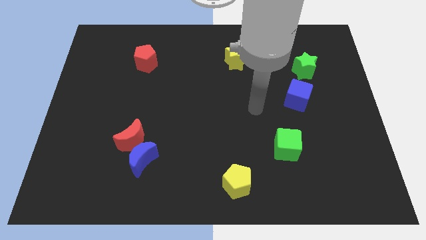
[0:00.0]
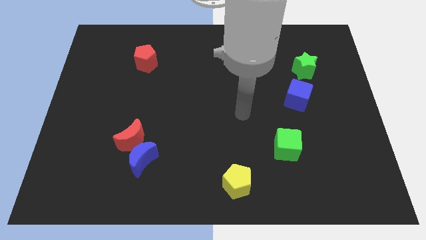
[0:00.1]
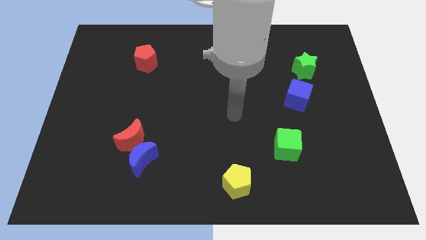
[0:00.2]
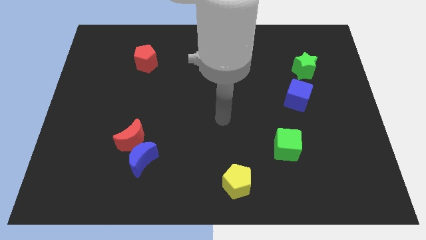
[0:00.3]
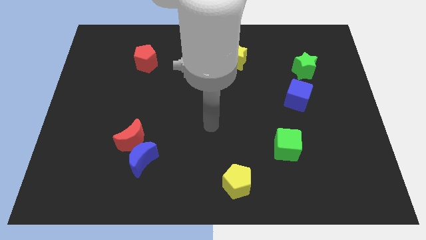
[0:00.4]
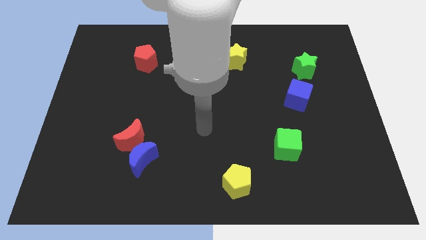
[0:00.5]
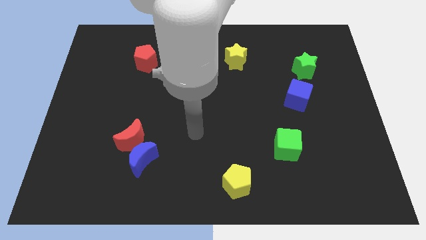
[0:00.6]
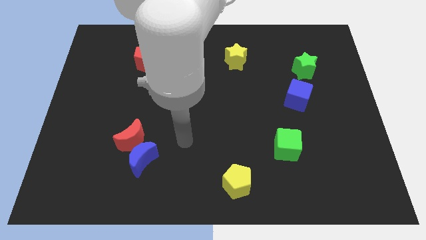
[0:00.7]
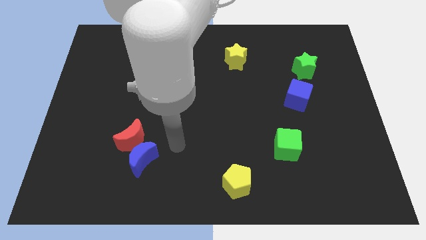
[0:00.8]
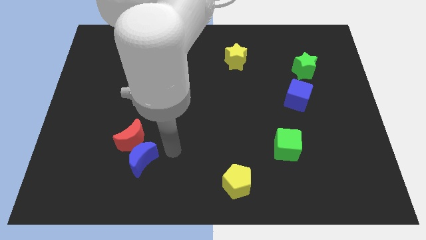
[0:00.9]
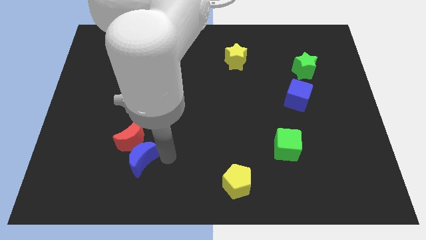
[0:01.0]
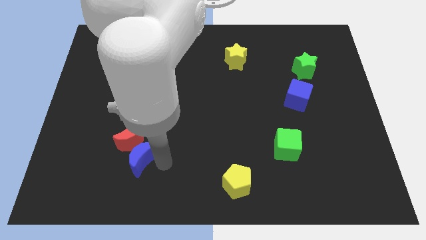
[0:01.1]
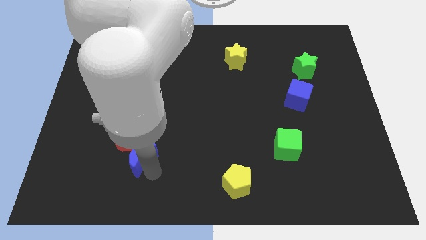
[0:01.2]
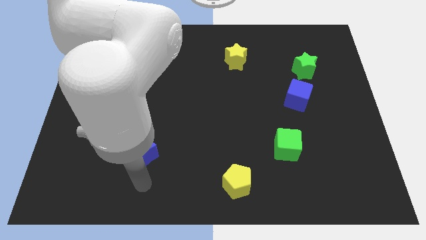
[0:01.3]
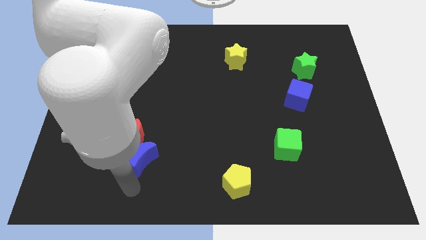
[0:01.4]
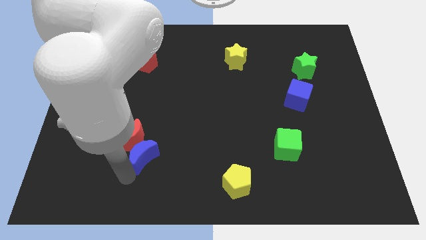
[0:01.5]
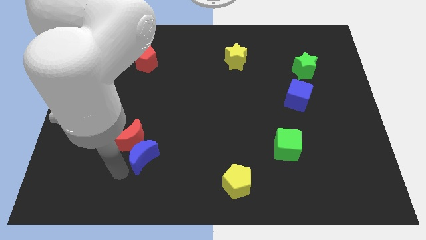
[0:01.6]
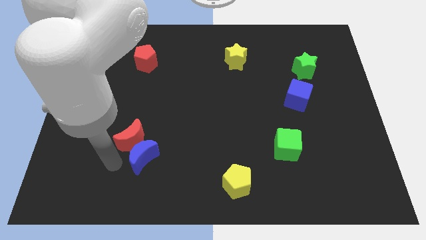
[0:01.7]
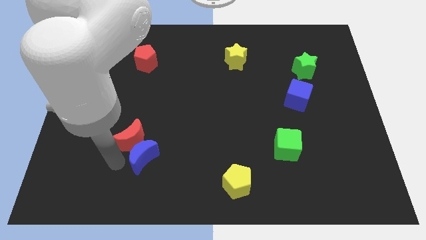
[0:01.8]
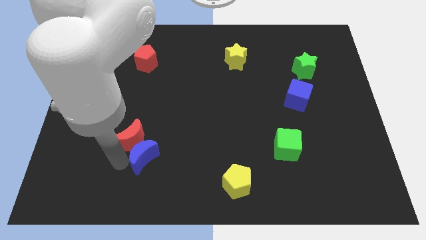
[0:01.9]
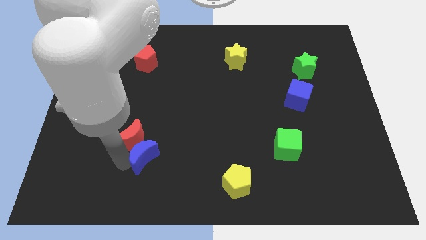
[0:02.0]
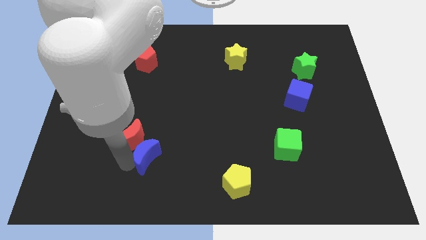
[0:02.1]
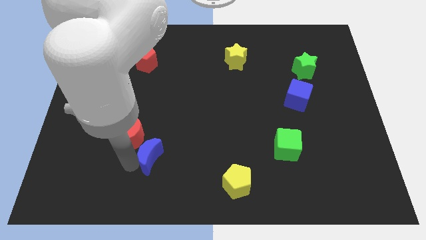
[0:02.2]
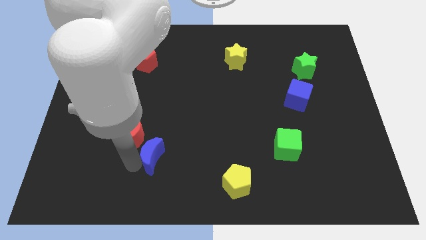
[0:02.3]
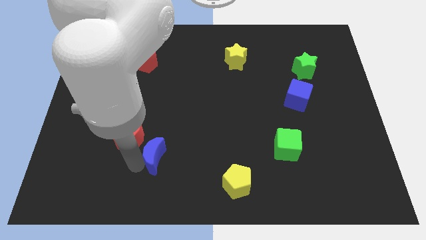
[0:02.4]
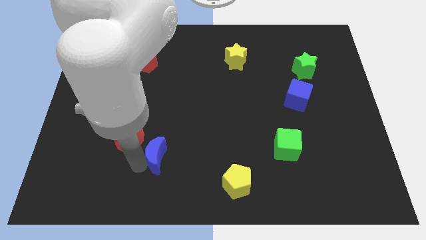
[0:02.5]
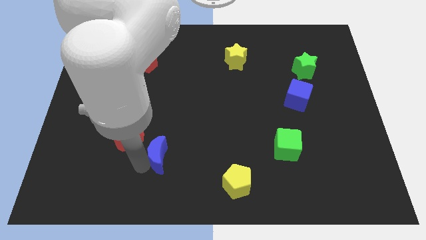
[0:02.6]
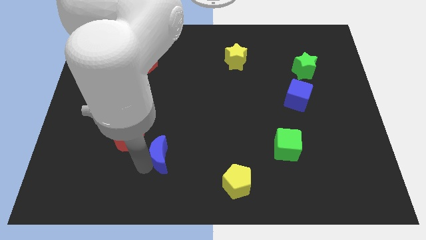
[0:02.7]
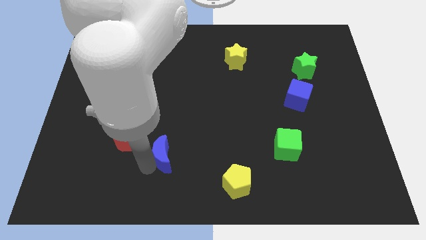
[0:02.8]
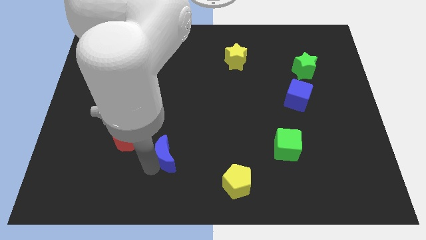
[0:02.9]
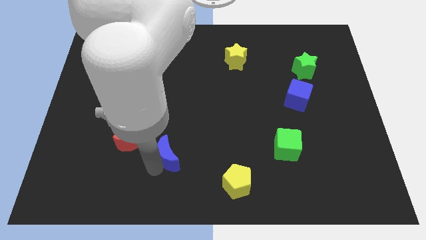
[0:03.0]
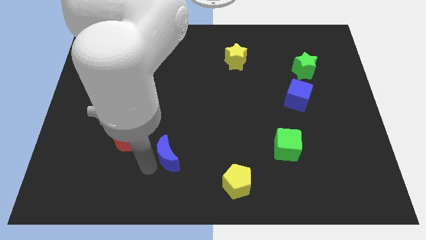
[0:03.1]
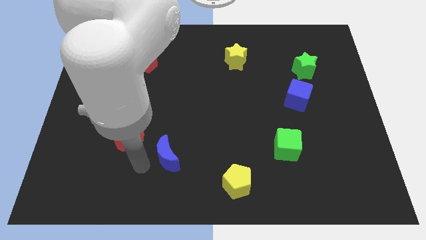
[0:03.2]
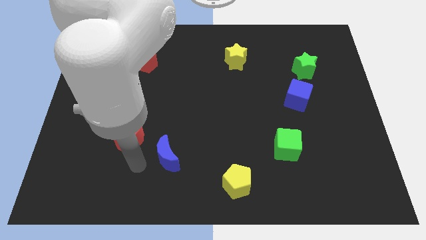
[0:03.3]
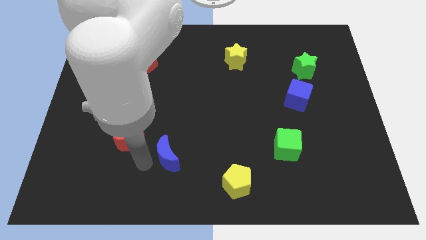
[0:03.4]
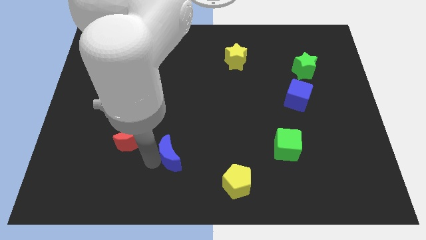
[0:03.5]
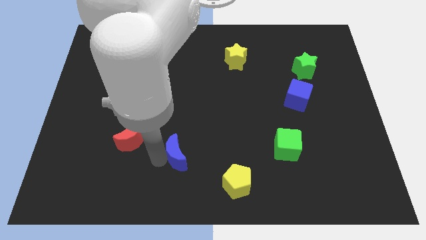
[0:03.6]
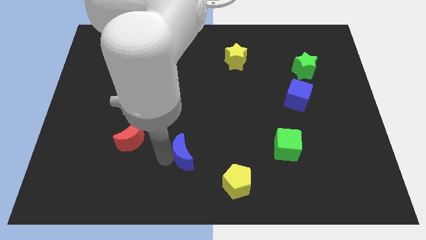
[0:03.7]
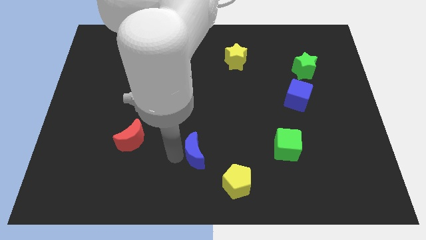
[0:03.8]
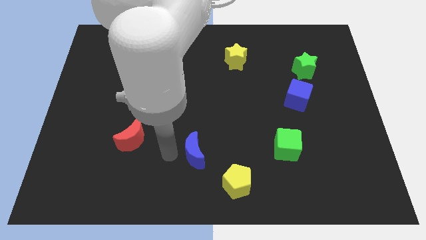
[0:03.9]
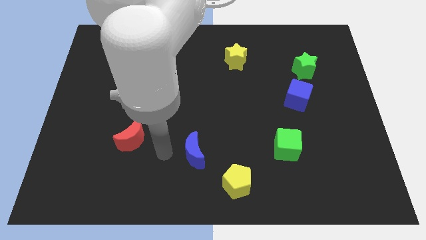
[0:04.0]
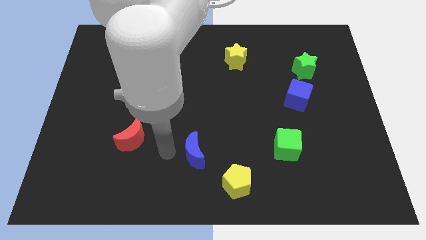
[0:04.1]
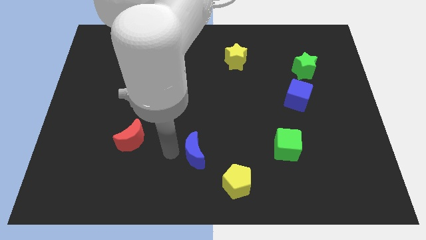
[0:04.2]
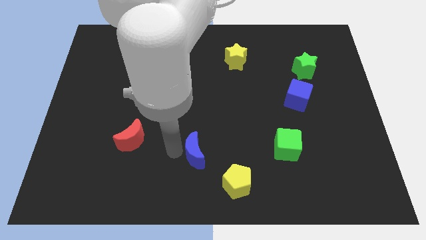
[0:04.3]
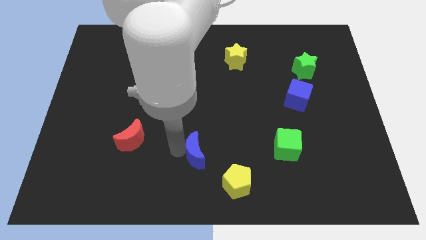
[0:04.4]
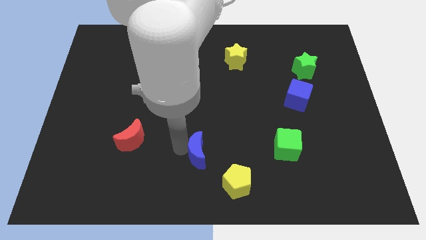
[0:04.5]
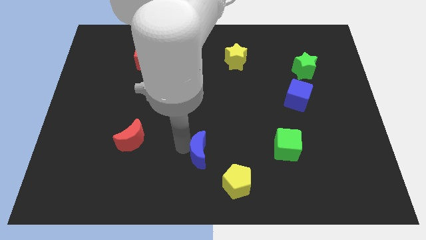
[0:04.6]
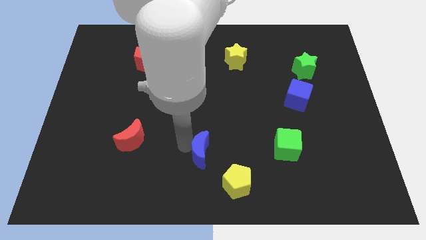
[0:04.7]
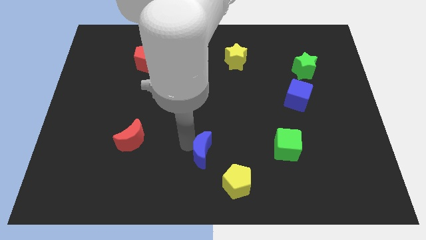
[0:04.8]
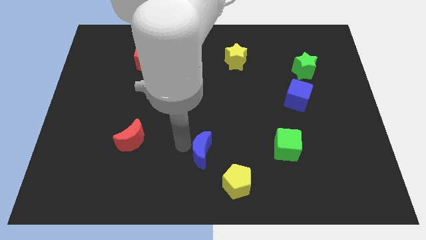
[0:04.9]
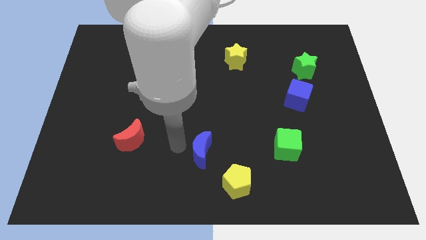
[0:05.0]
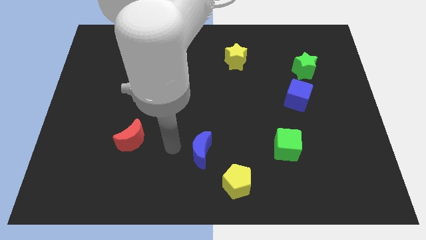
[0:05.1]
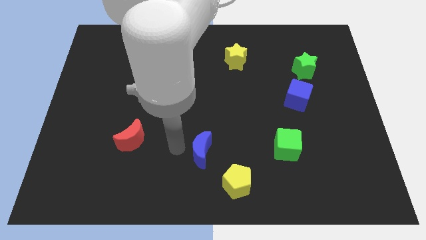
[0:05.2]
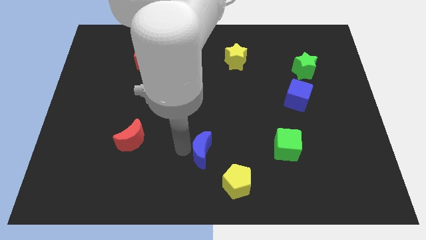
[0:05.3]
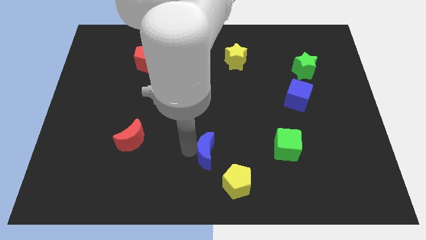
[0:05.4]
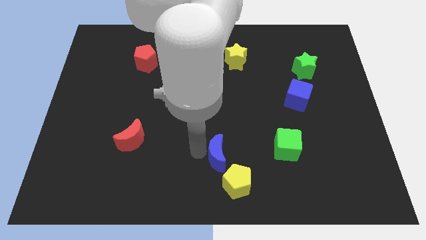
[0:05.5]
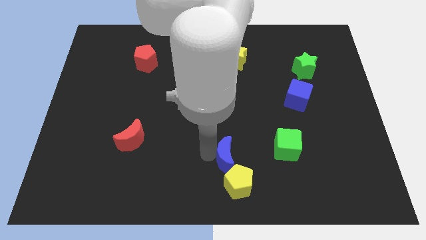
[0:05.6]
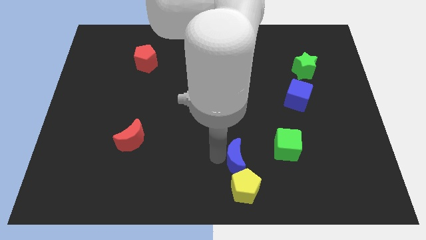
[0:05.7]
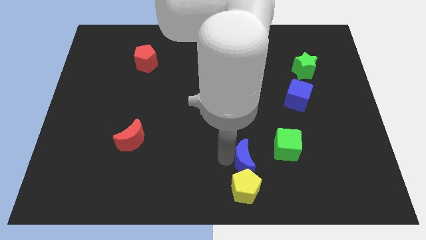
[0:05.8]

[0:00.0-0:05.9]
put the blue moon diagonally up and to the right of the yellow pentagon
